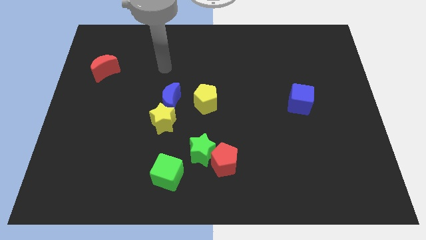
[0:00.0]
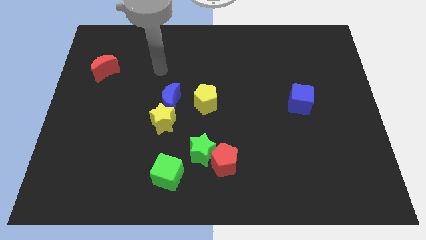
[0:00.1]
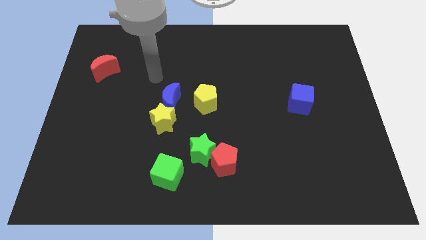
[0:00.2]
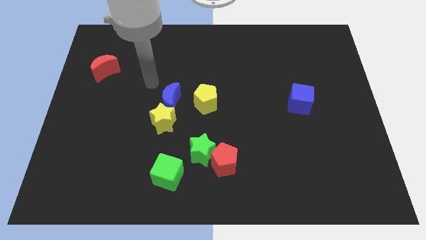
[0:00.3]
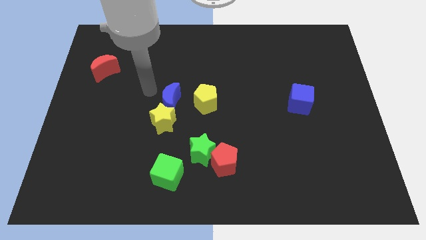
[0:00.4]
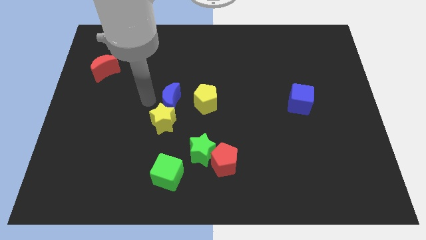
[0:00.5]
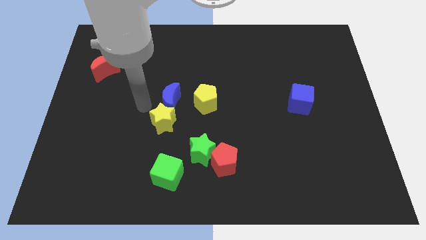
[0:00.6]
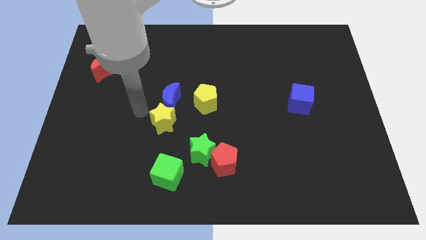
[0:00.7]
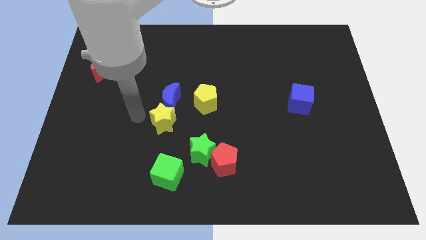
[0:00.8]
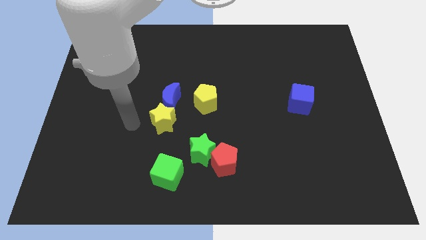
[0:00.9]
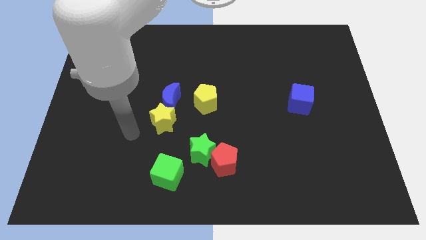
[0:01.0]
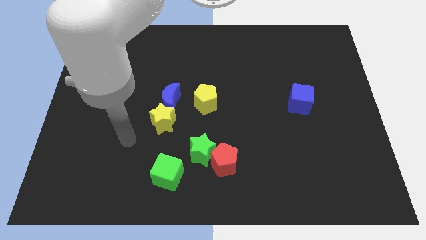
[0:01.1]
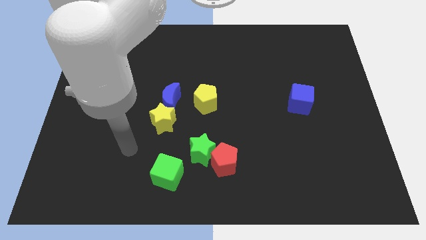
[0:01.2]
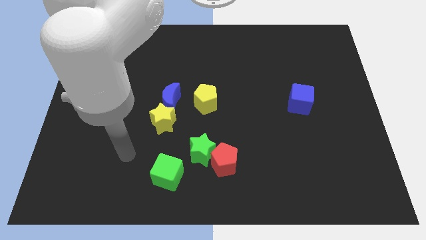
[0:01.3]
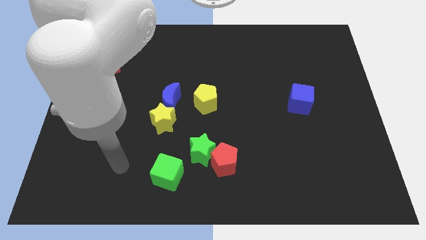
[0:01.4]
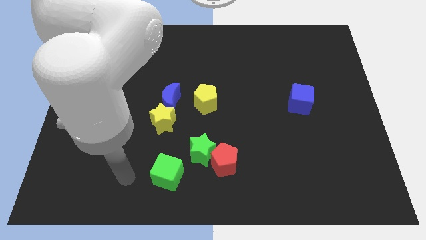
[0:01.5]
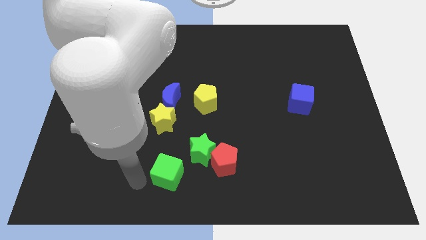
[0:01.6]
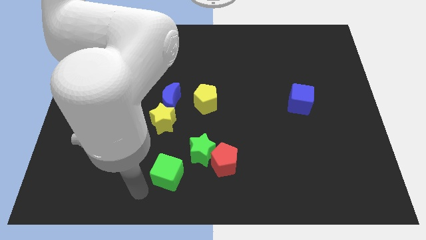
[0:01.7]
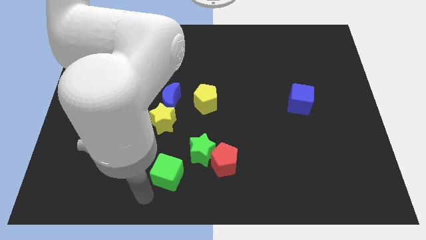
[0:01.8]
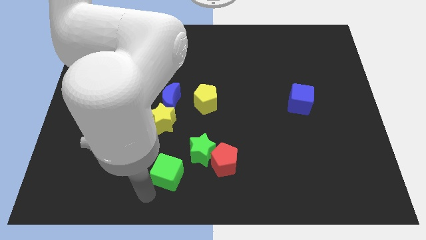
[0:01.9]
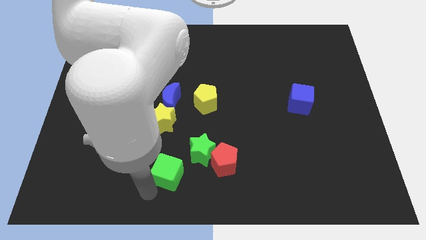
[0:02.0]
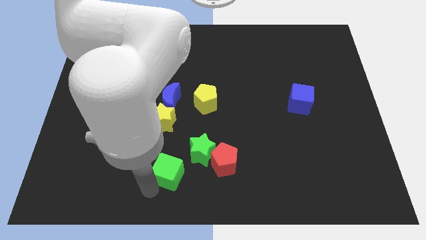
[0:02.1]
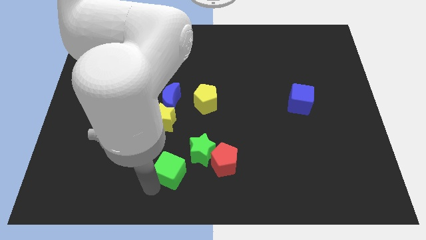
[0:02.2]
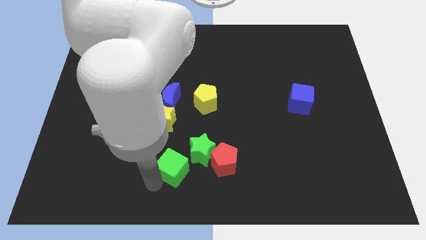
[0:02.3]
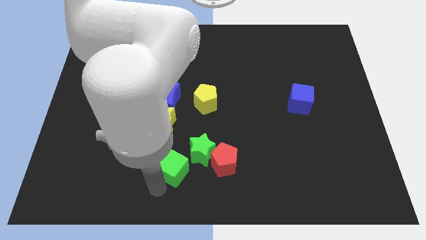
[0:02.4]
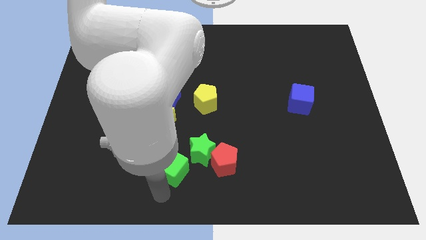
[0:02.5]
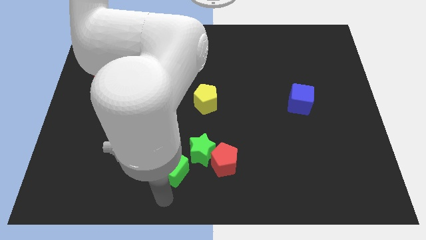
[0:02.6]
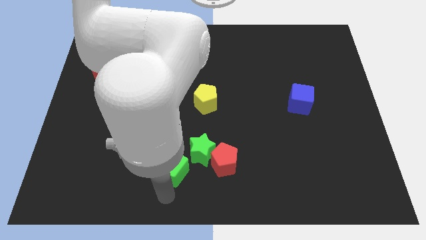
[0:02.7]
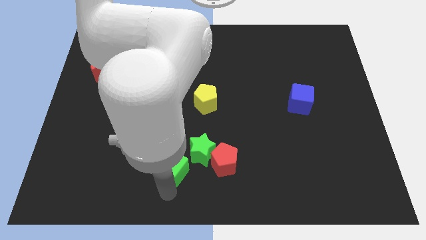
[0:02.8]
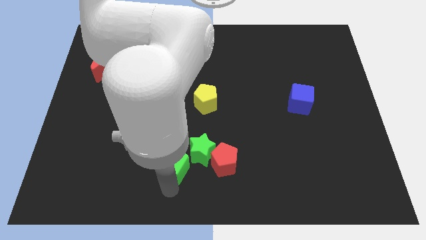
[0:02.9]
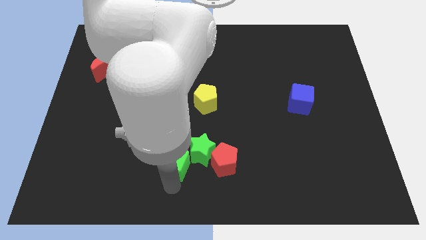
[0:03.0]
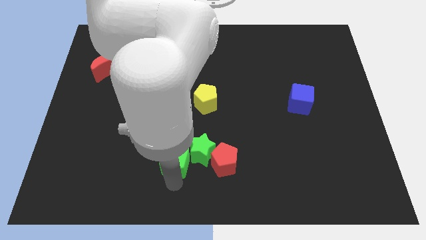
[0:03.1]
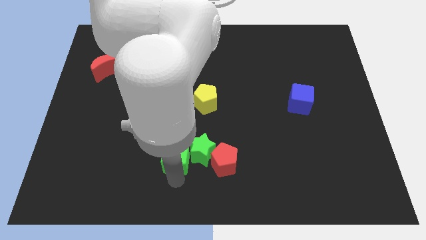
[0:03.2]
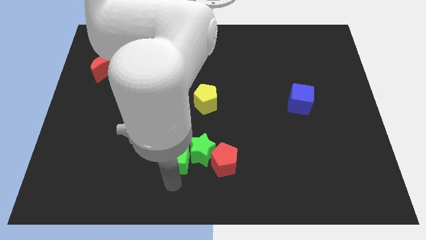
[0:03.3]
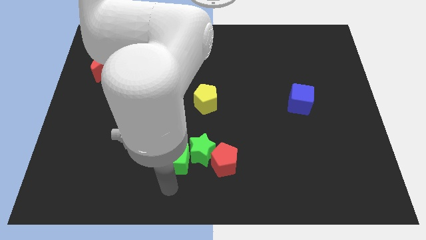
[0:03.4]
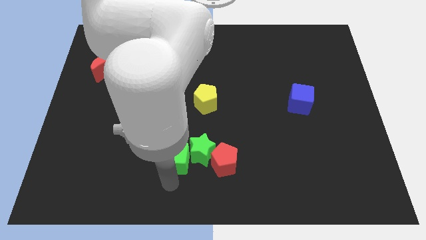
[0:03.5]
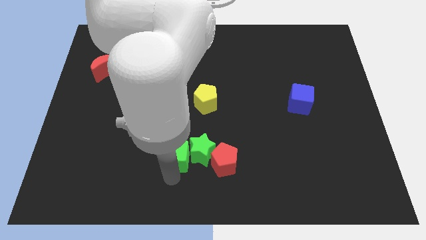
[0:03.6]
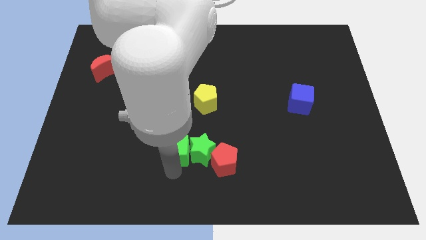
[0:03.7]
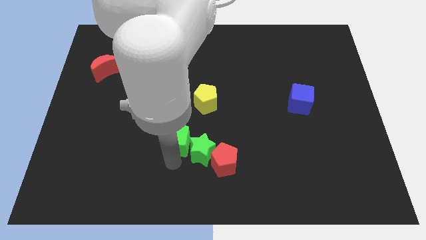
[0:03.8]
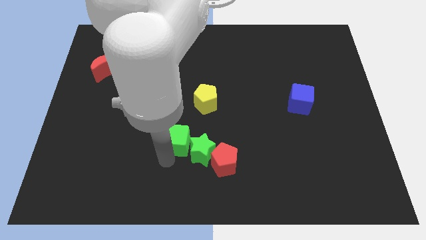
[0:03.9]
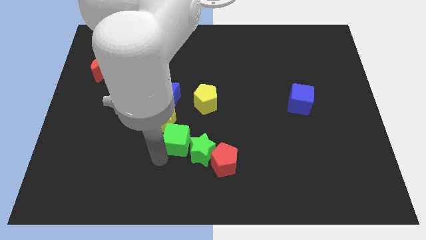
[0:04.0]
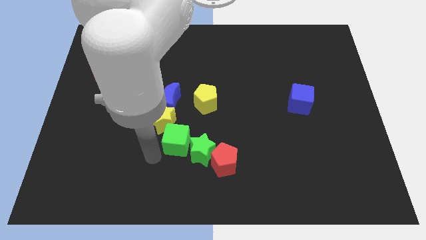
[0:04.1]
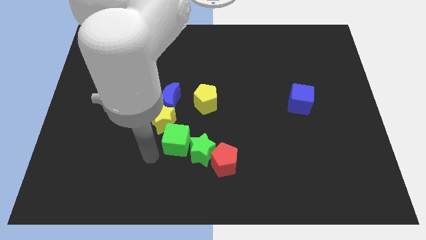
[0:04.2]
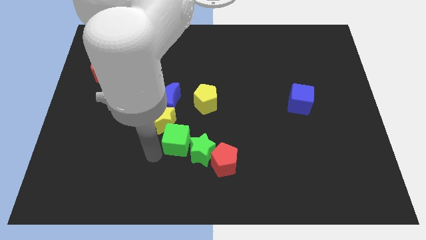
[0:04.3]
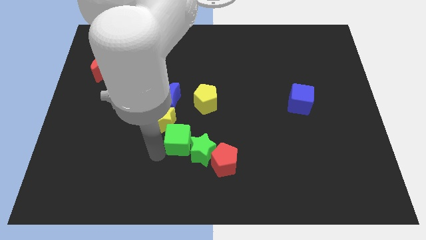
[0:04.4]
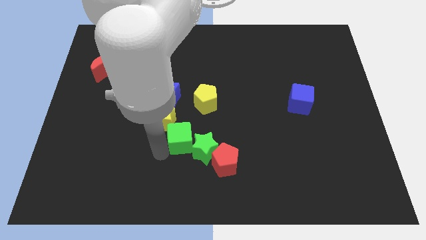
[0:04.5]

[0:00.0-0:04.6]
slightly push the green cube upwards and to the right

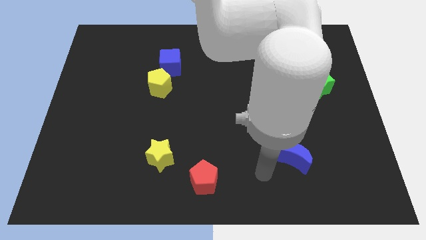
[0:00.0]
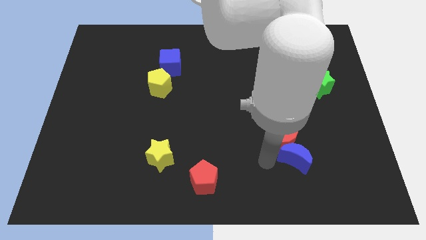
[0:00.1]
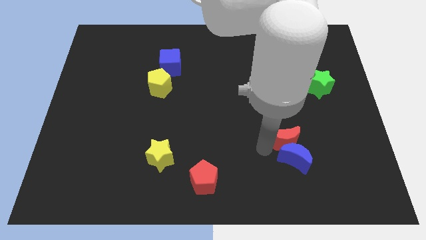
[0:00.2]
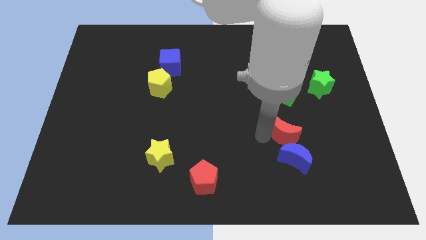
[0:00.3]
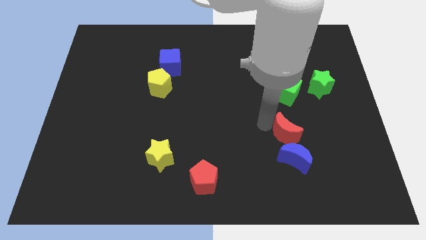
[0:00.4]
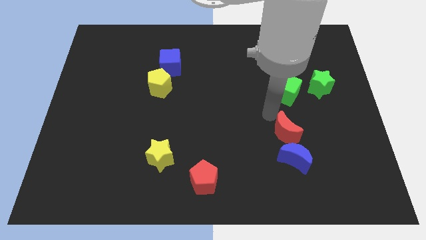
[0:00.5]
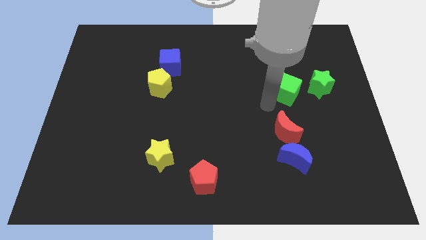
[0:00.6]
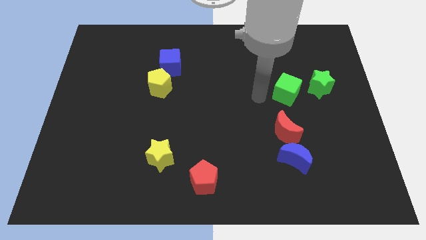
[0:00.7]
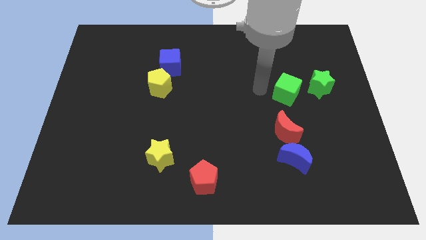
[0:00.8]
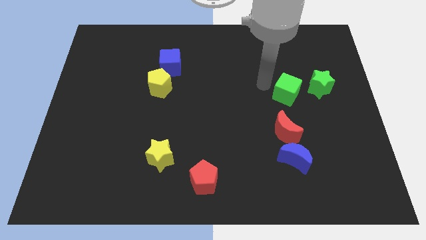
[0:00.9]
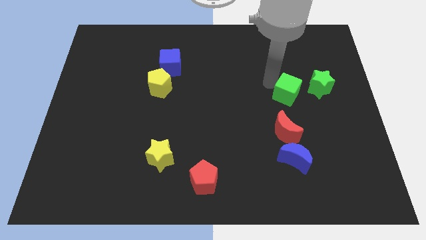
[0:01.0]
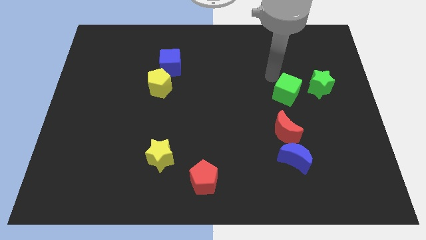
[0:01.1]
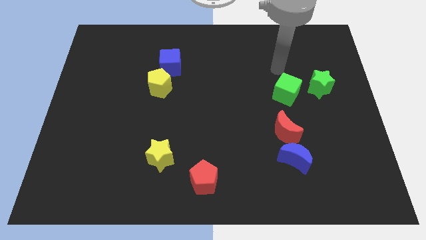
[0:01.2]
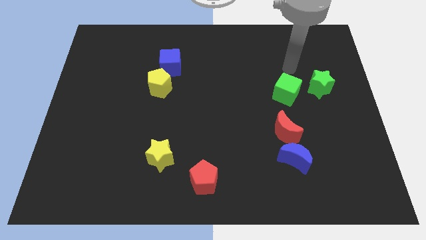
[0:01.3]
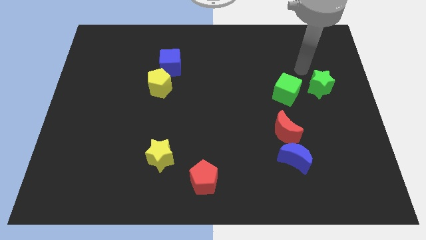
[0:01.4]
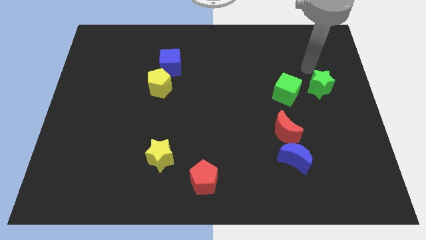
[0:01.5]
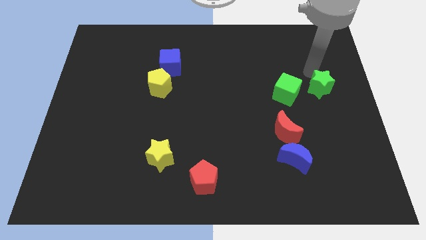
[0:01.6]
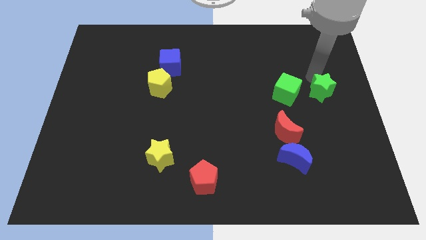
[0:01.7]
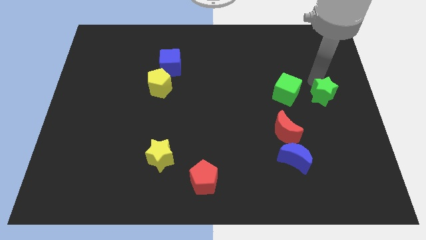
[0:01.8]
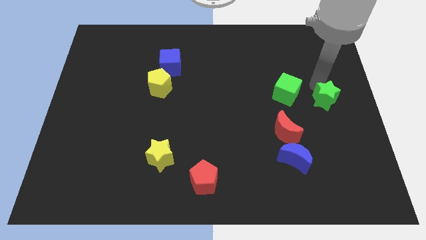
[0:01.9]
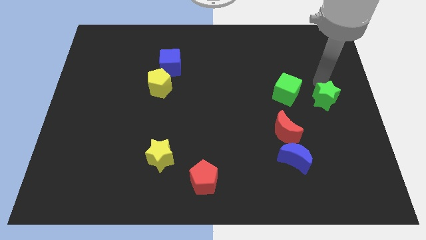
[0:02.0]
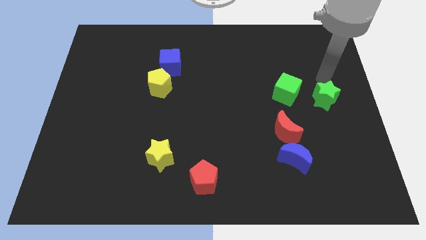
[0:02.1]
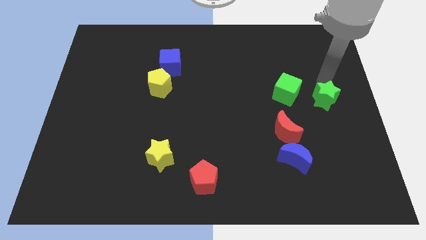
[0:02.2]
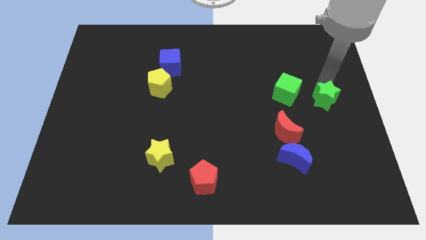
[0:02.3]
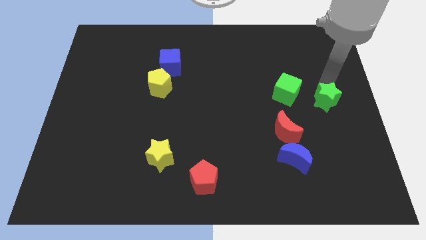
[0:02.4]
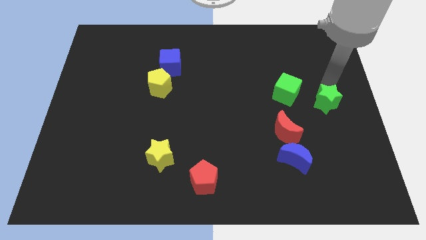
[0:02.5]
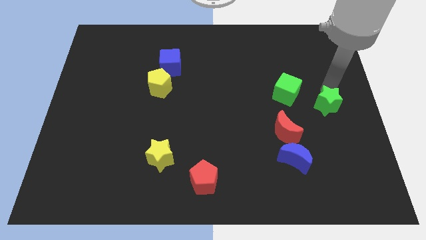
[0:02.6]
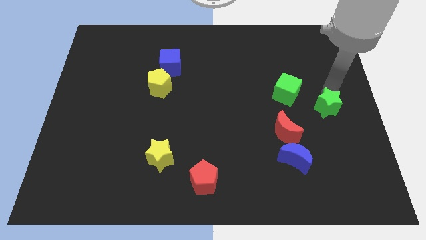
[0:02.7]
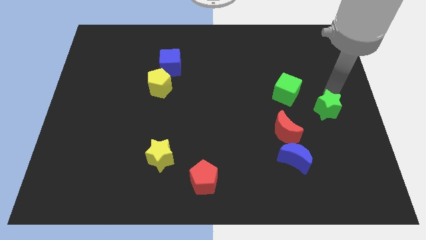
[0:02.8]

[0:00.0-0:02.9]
move the green star a little down
